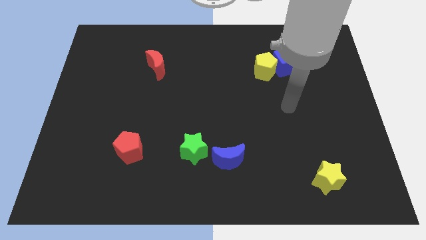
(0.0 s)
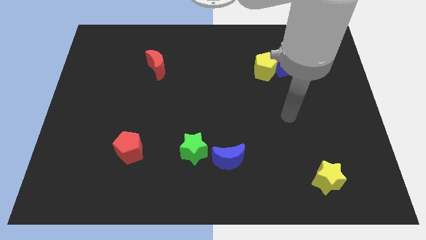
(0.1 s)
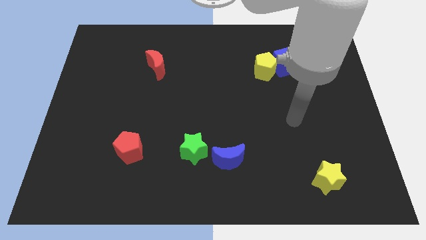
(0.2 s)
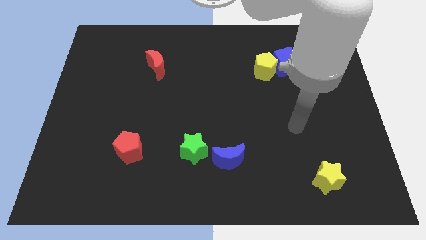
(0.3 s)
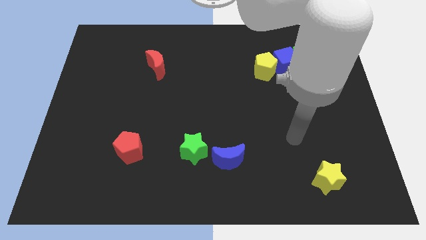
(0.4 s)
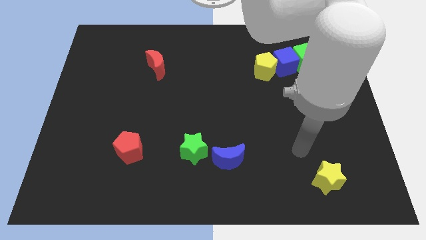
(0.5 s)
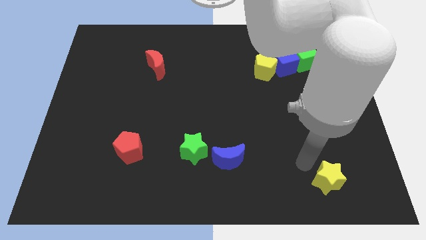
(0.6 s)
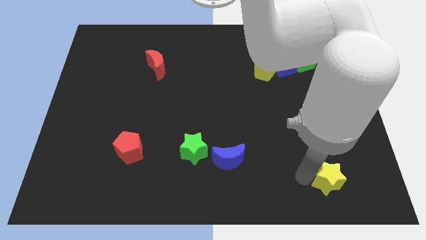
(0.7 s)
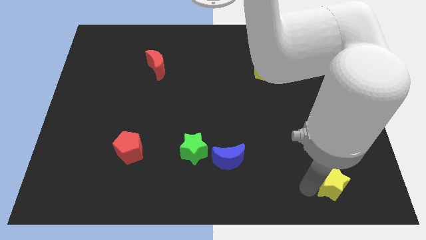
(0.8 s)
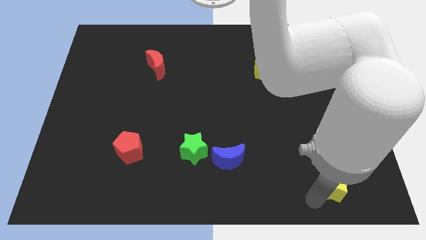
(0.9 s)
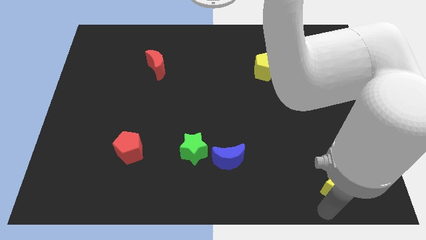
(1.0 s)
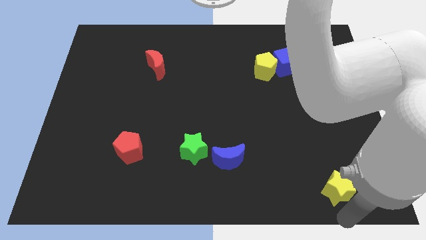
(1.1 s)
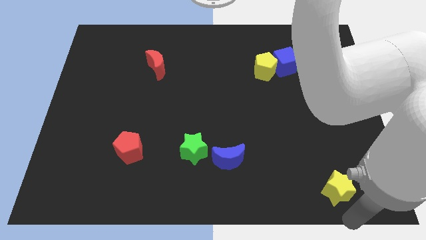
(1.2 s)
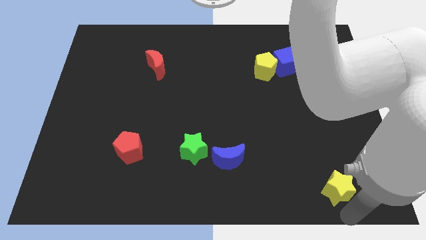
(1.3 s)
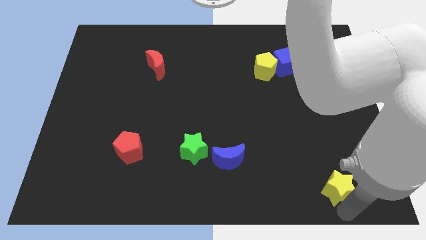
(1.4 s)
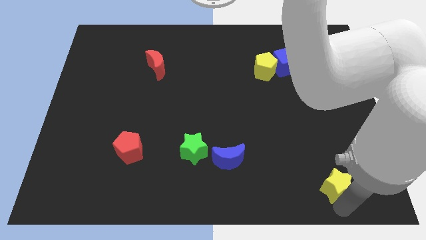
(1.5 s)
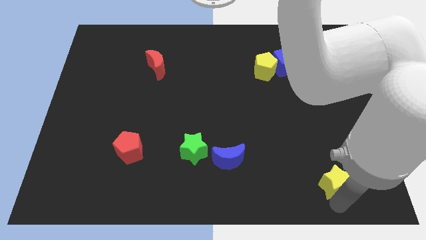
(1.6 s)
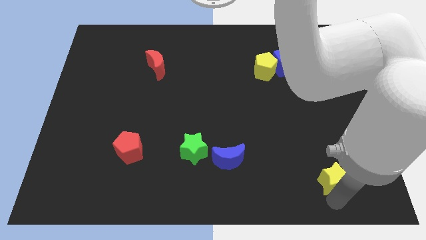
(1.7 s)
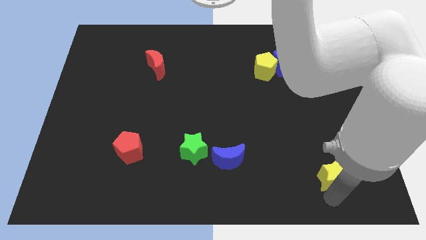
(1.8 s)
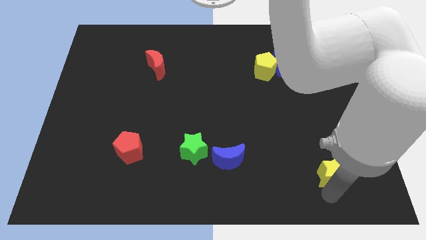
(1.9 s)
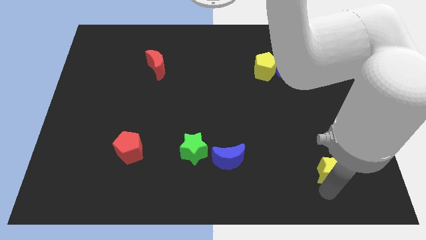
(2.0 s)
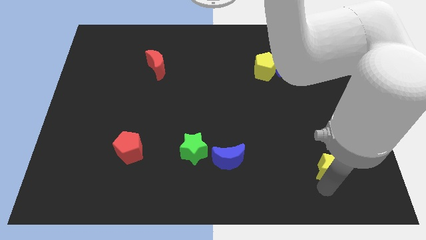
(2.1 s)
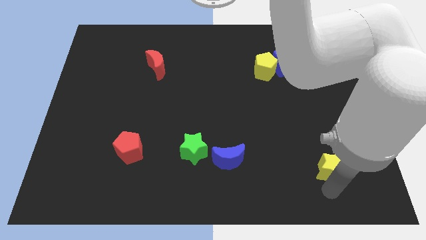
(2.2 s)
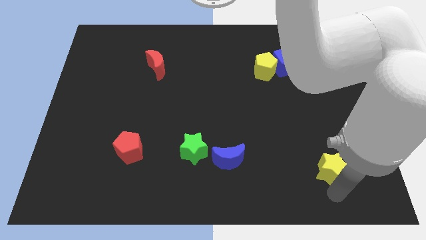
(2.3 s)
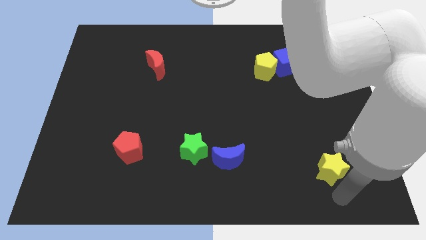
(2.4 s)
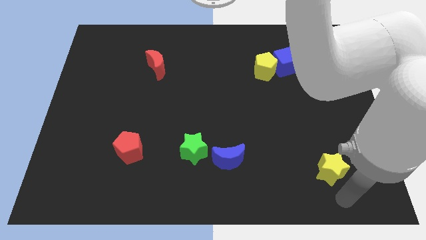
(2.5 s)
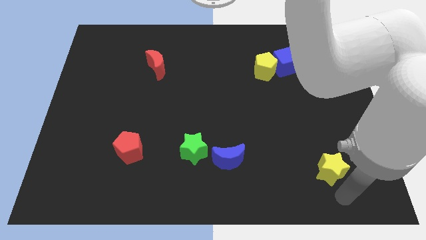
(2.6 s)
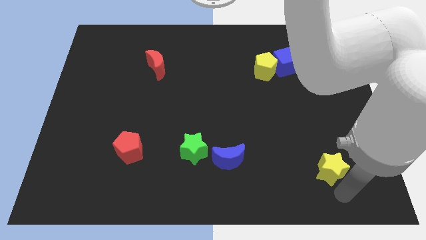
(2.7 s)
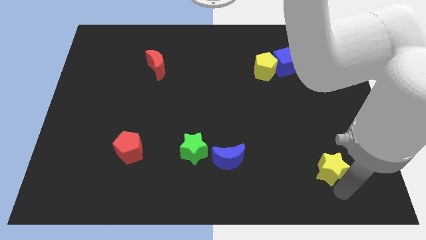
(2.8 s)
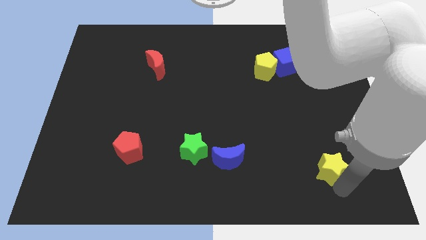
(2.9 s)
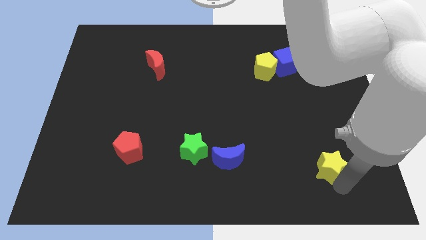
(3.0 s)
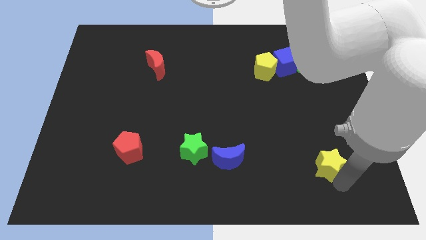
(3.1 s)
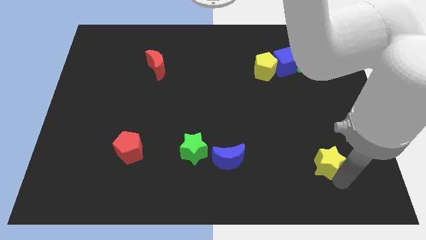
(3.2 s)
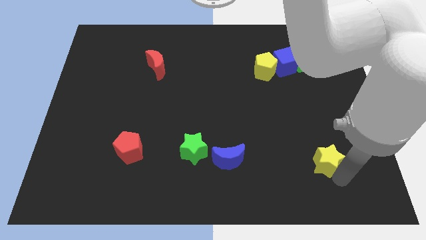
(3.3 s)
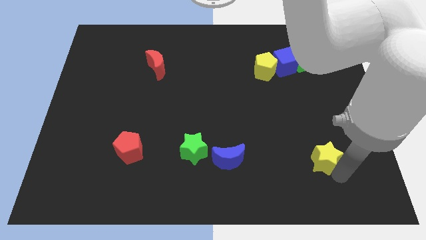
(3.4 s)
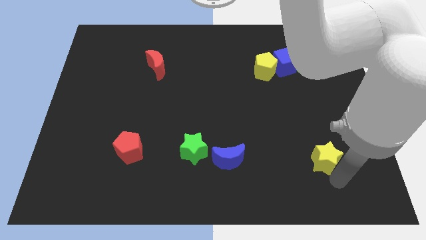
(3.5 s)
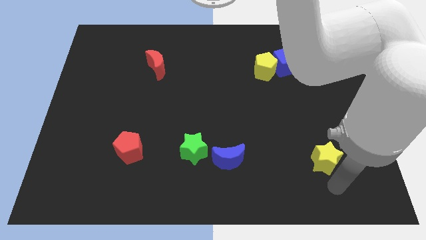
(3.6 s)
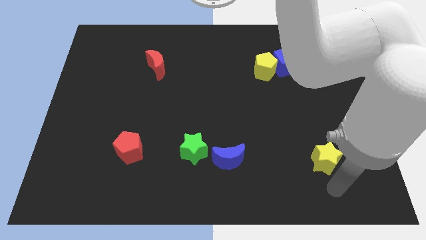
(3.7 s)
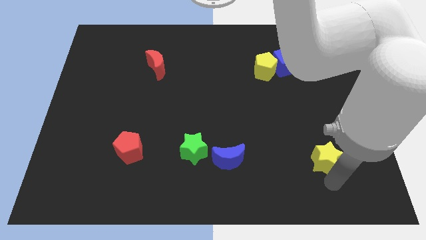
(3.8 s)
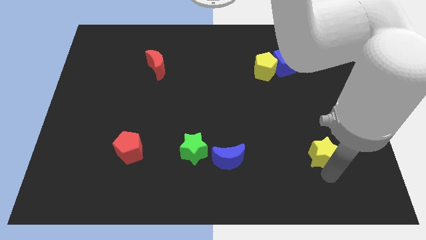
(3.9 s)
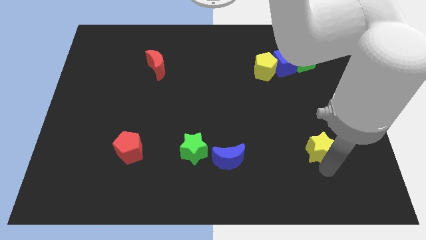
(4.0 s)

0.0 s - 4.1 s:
slide the yellow star up slightly

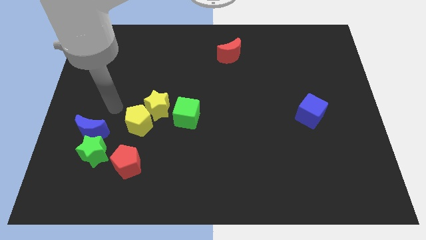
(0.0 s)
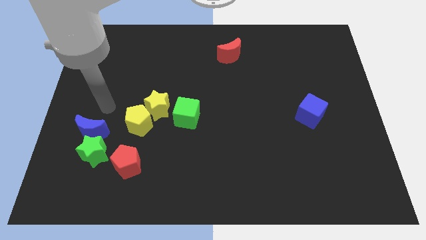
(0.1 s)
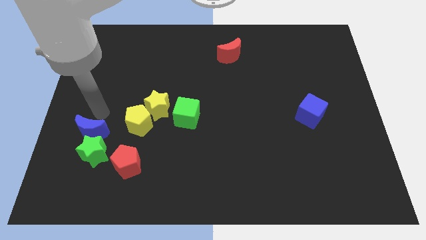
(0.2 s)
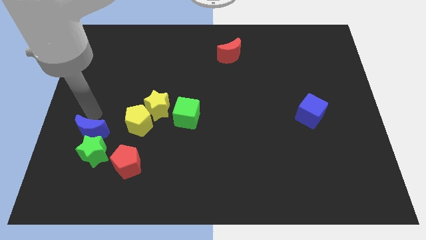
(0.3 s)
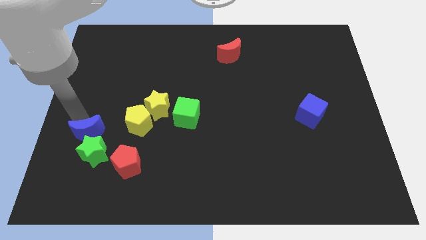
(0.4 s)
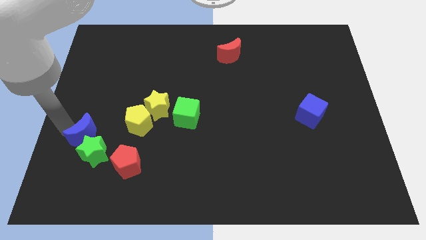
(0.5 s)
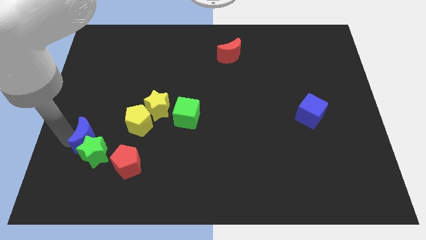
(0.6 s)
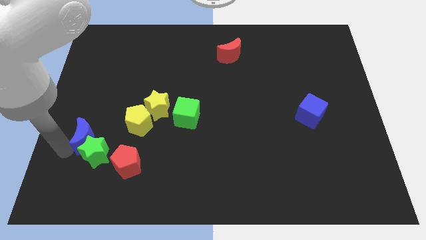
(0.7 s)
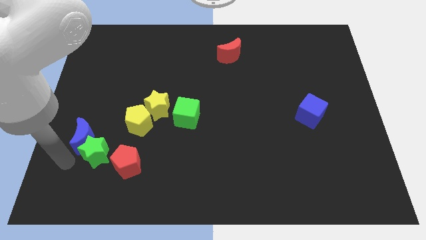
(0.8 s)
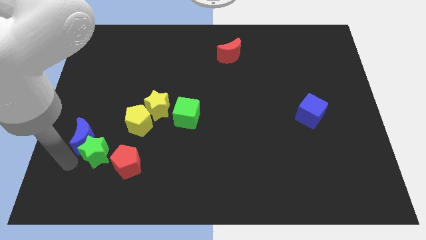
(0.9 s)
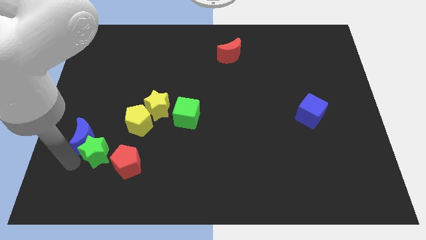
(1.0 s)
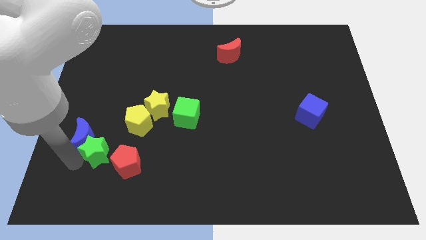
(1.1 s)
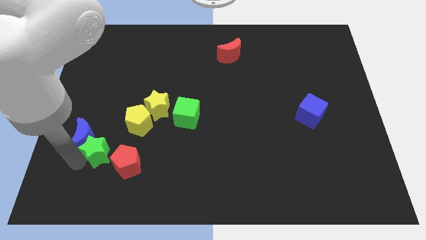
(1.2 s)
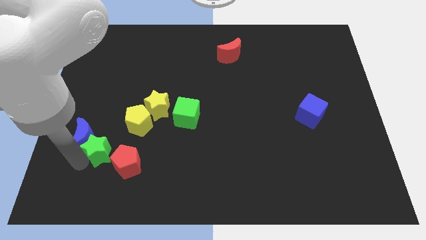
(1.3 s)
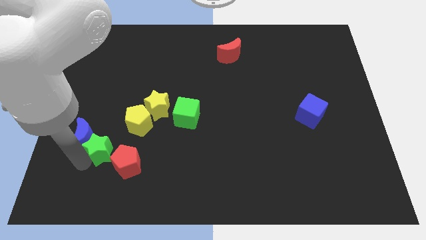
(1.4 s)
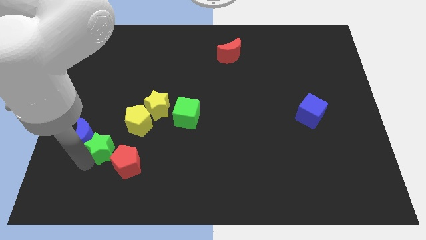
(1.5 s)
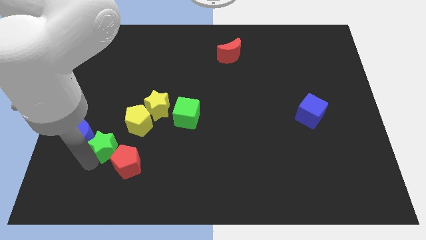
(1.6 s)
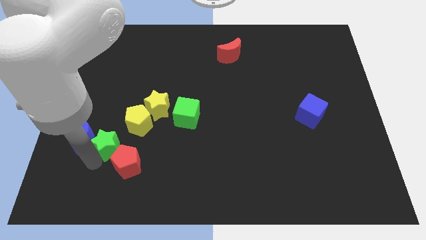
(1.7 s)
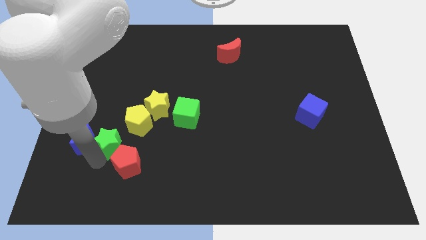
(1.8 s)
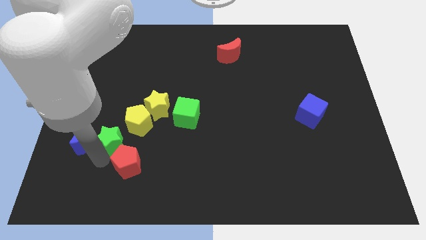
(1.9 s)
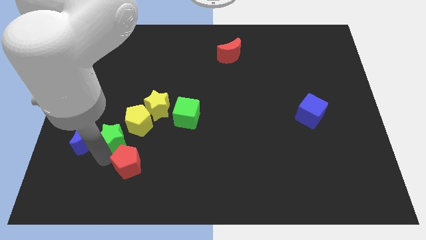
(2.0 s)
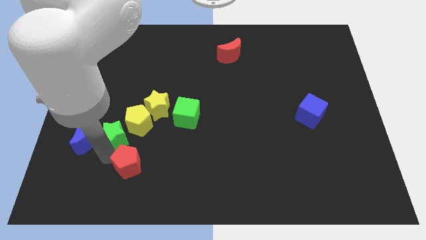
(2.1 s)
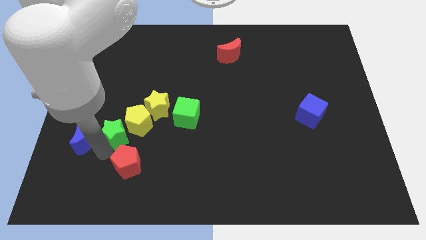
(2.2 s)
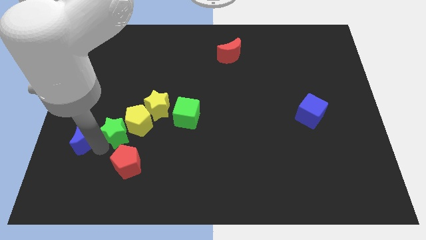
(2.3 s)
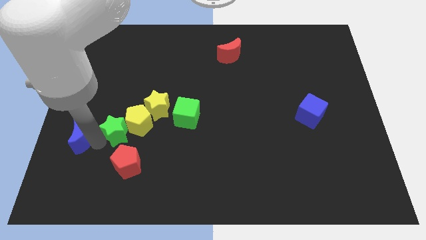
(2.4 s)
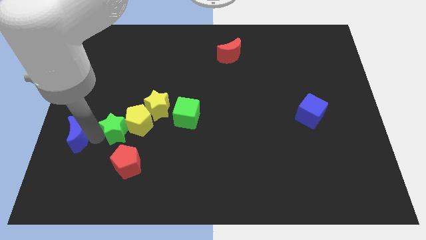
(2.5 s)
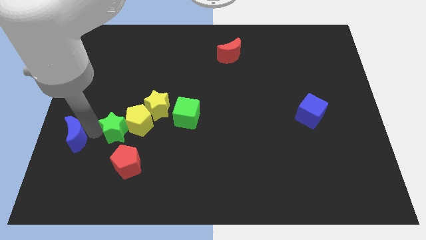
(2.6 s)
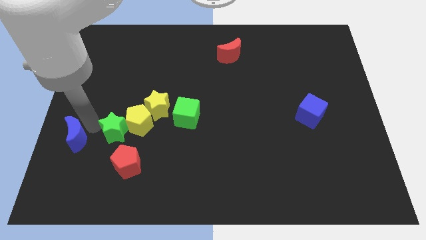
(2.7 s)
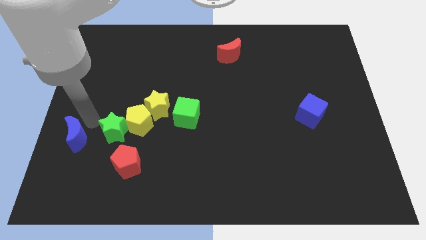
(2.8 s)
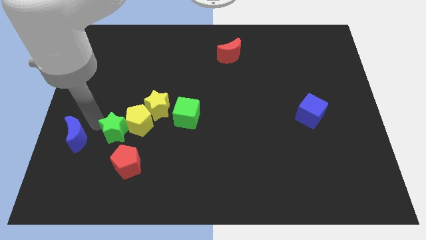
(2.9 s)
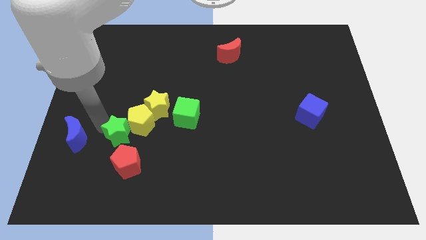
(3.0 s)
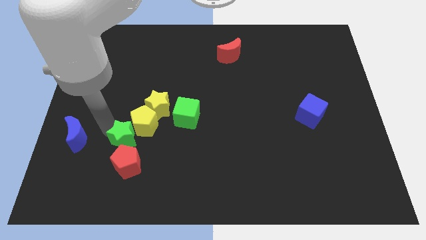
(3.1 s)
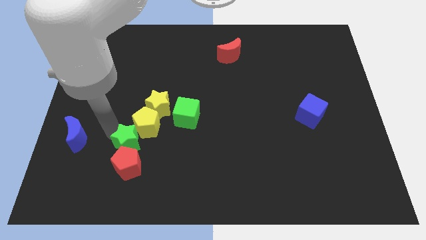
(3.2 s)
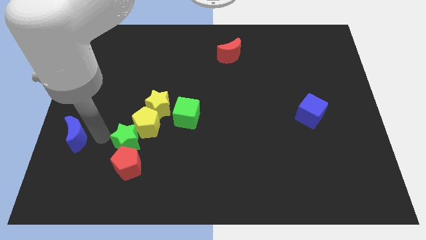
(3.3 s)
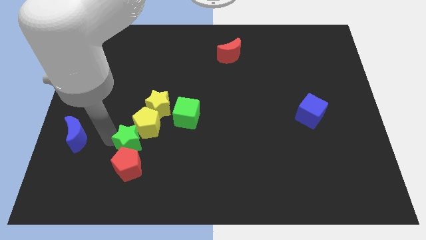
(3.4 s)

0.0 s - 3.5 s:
slide the green star somewhat to the right

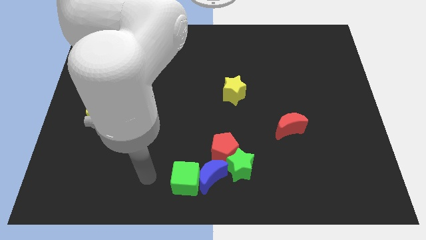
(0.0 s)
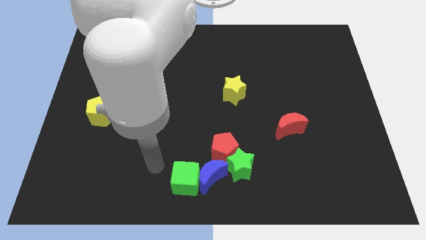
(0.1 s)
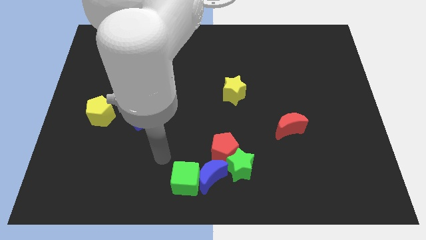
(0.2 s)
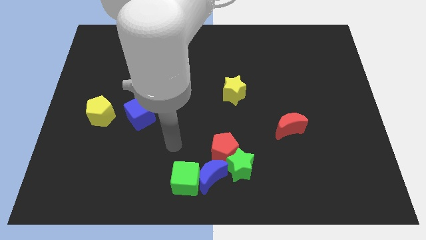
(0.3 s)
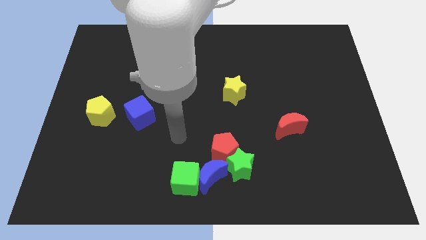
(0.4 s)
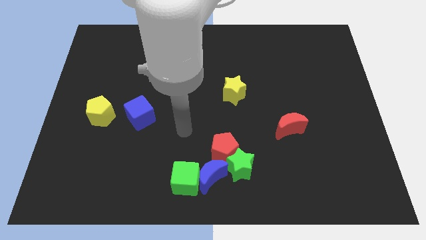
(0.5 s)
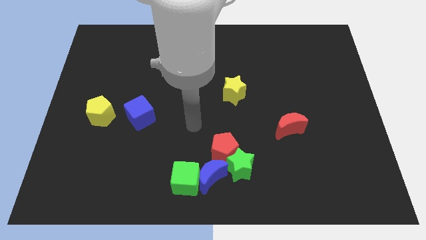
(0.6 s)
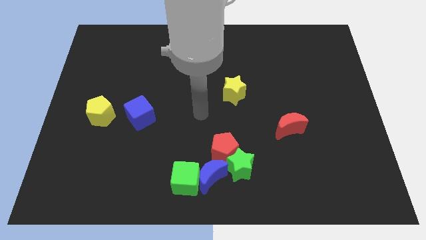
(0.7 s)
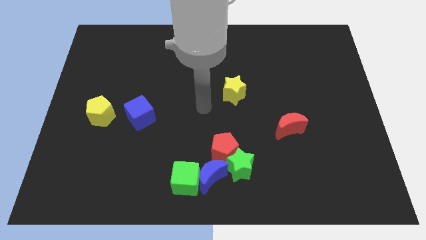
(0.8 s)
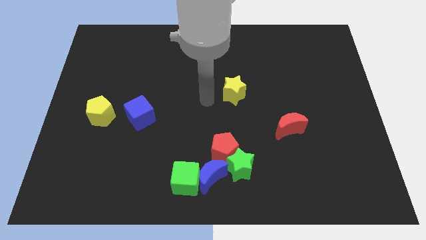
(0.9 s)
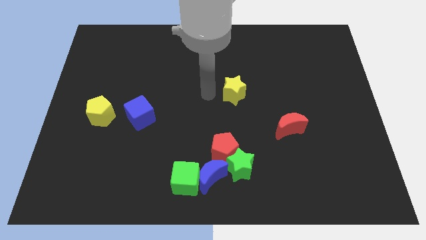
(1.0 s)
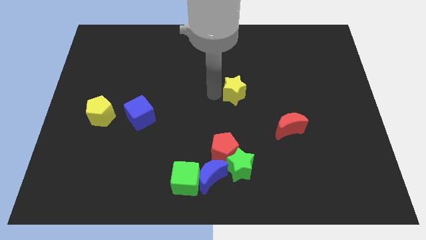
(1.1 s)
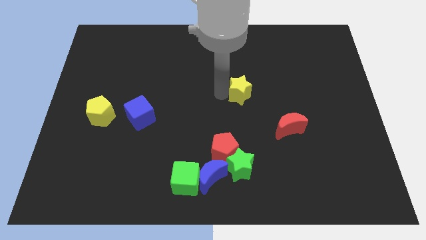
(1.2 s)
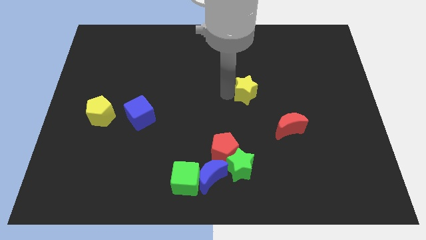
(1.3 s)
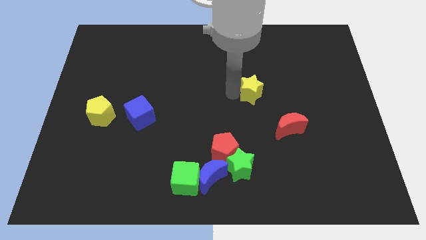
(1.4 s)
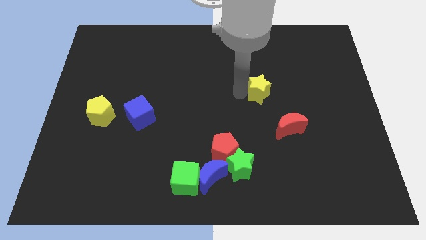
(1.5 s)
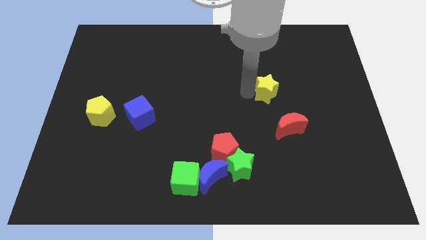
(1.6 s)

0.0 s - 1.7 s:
move the yellow star to the right a bit
